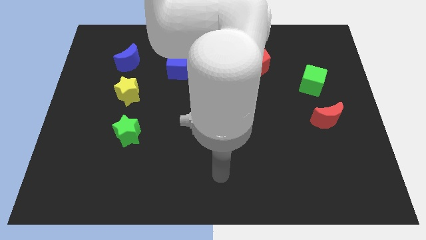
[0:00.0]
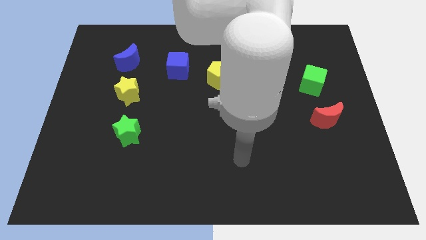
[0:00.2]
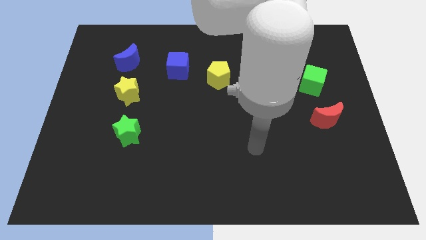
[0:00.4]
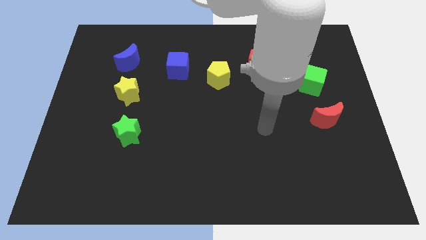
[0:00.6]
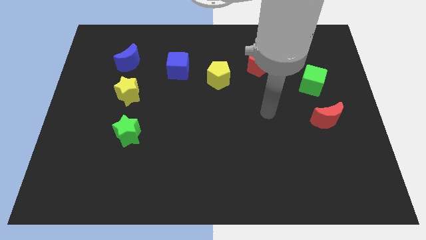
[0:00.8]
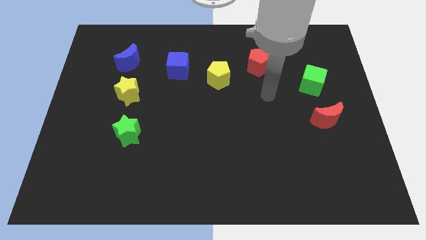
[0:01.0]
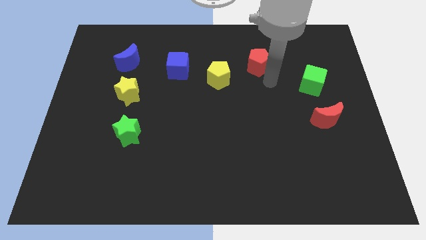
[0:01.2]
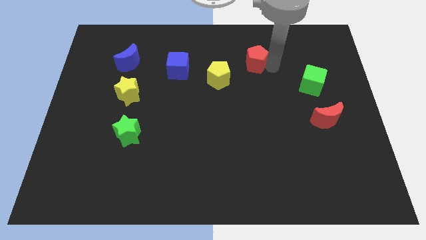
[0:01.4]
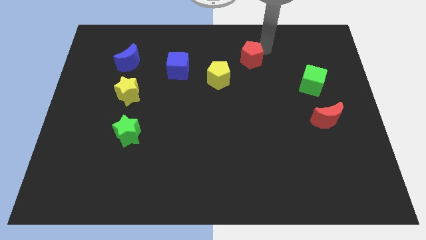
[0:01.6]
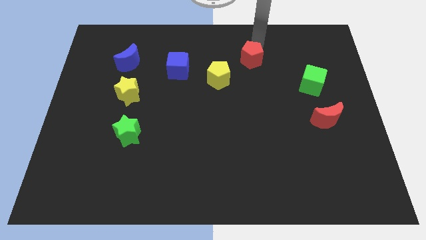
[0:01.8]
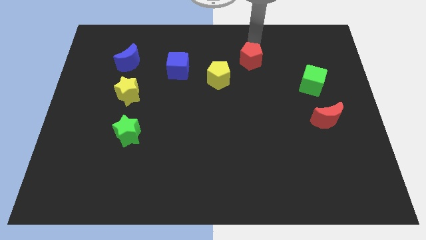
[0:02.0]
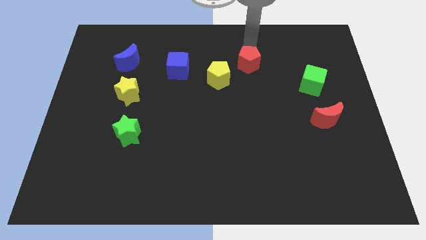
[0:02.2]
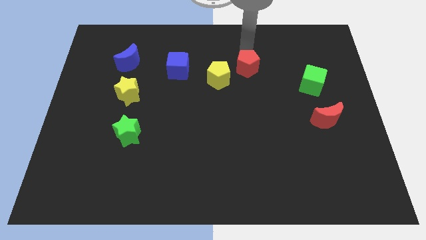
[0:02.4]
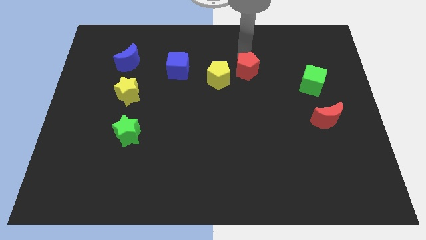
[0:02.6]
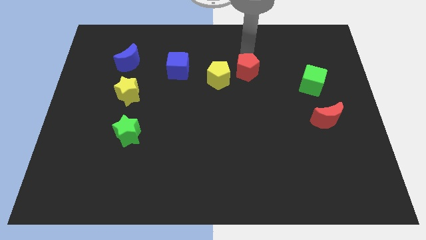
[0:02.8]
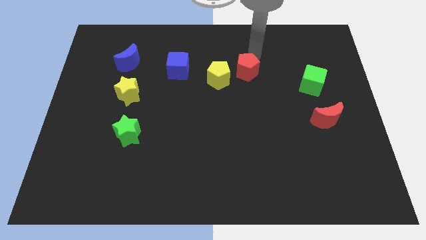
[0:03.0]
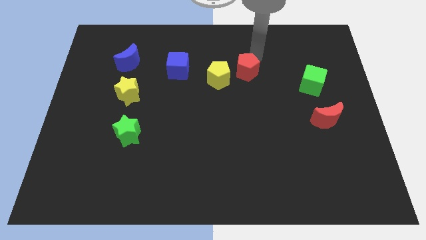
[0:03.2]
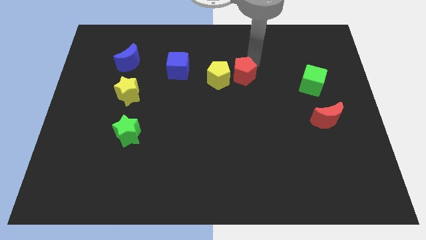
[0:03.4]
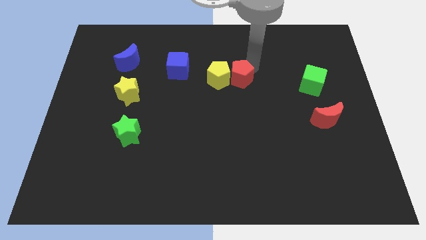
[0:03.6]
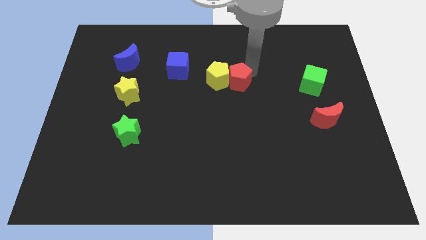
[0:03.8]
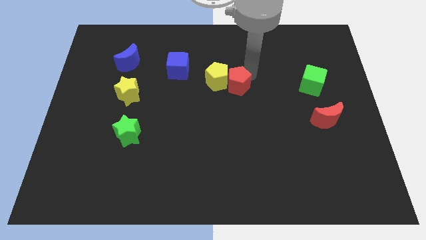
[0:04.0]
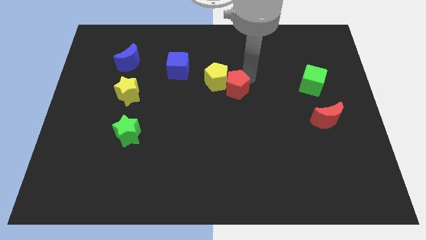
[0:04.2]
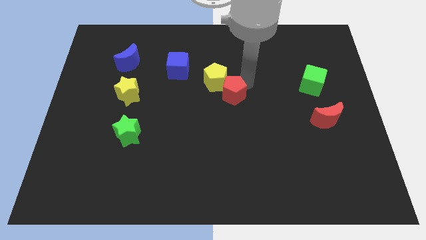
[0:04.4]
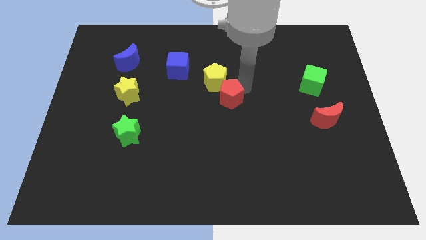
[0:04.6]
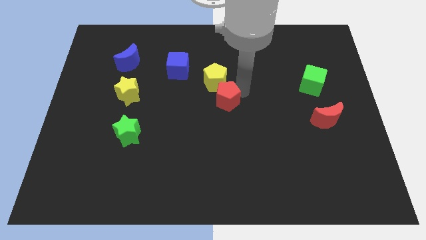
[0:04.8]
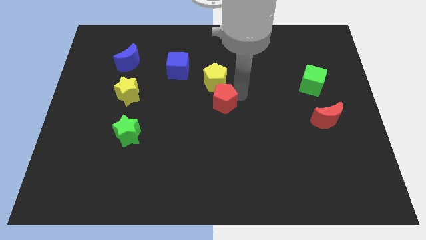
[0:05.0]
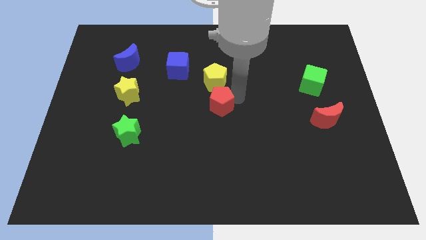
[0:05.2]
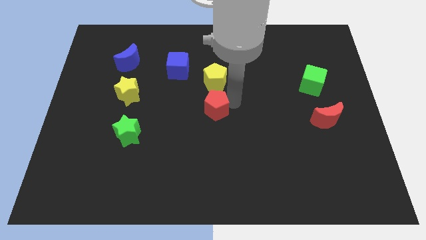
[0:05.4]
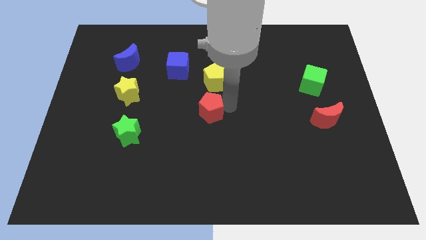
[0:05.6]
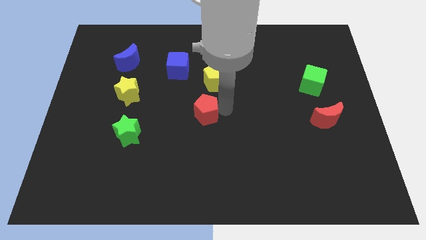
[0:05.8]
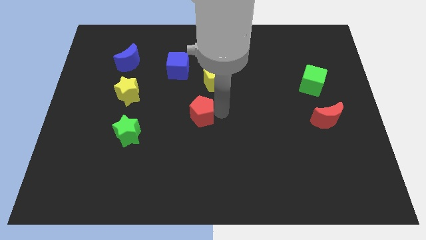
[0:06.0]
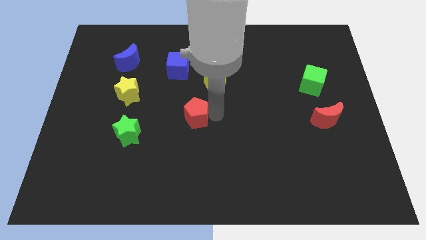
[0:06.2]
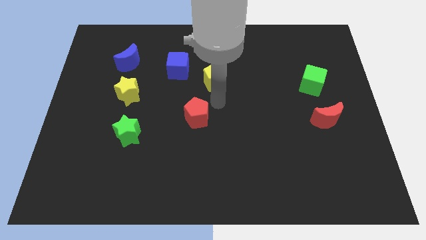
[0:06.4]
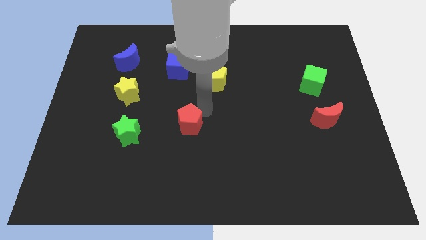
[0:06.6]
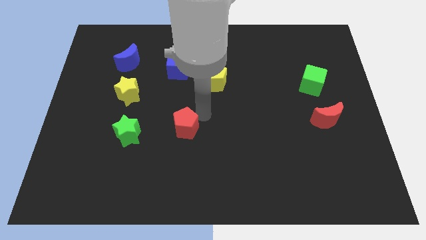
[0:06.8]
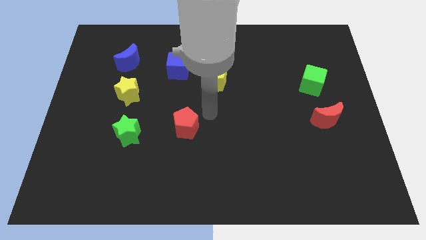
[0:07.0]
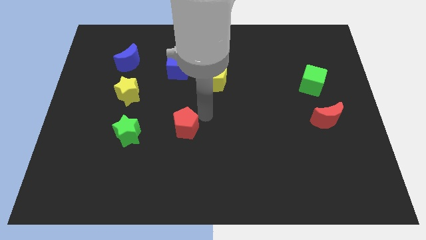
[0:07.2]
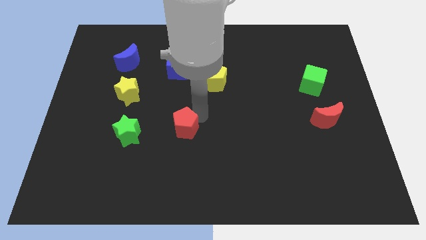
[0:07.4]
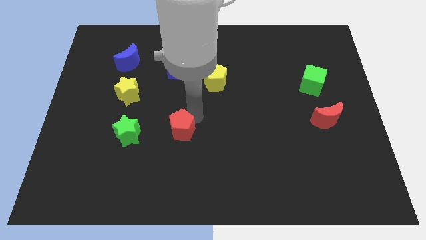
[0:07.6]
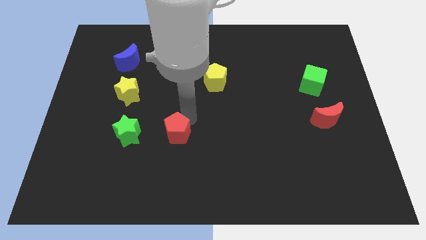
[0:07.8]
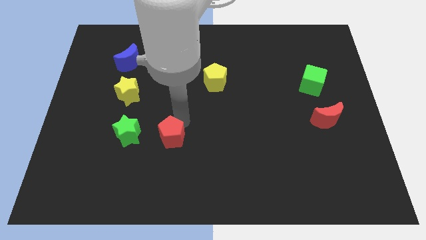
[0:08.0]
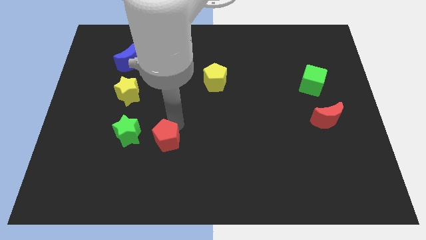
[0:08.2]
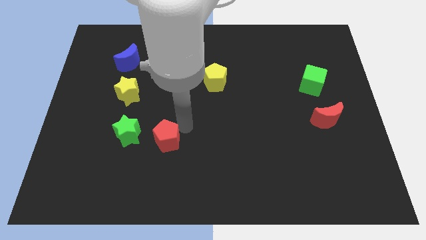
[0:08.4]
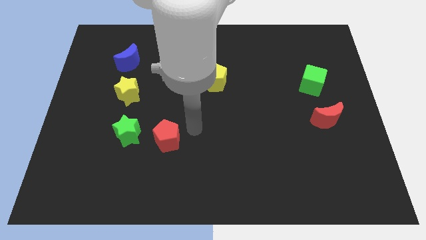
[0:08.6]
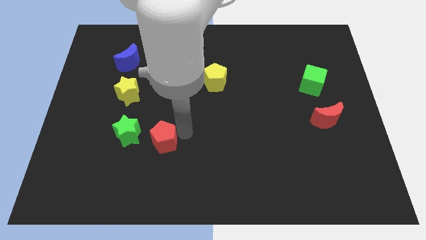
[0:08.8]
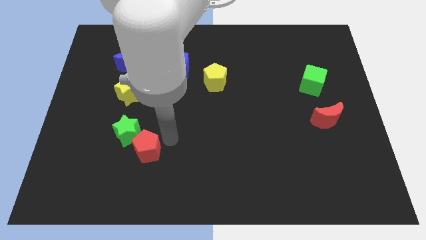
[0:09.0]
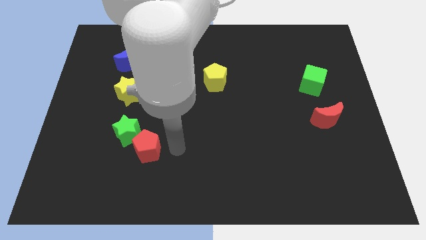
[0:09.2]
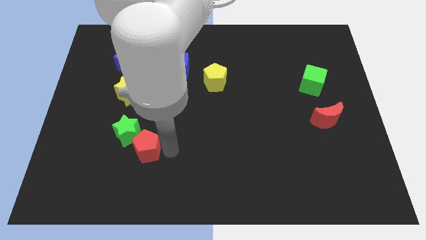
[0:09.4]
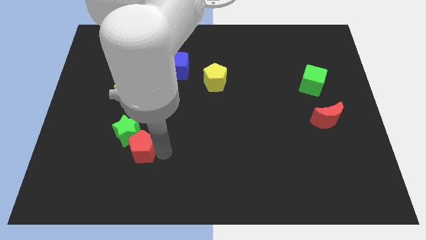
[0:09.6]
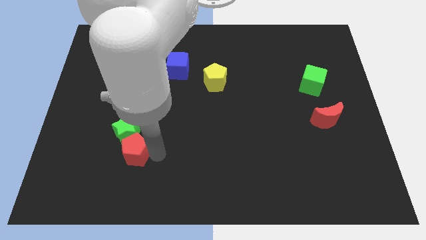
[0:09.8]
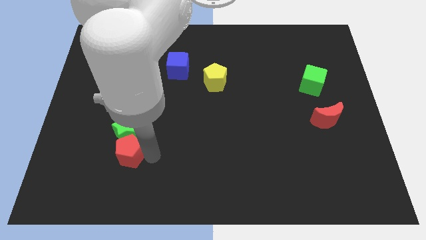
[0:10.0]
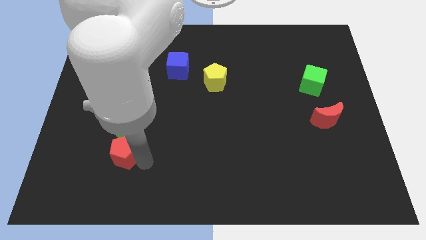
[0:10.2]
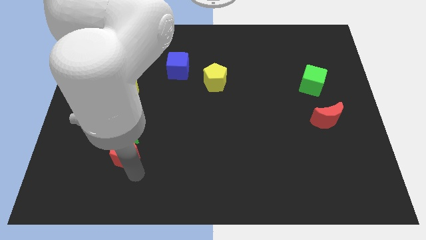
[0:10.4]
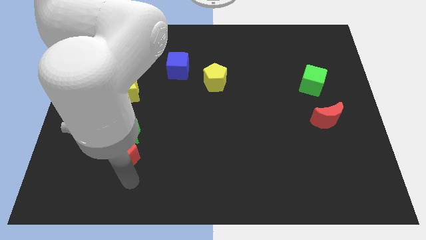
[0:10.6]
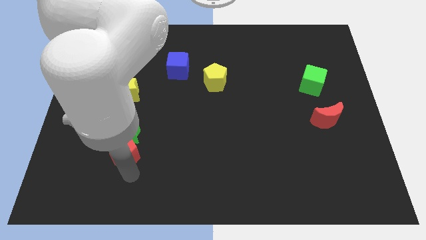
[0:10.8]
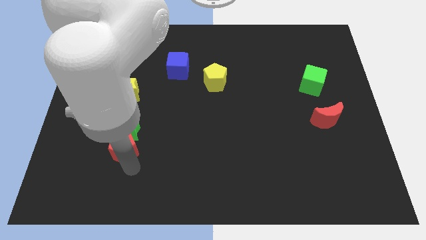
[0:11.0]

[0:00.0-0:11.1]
put the red pentagon below the yellow star

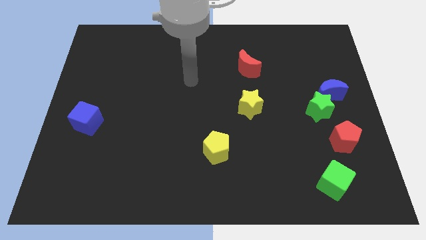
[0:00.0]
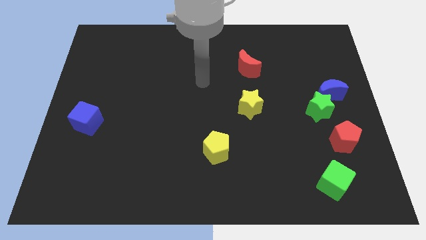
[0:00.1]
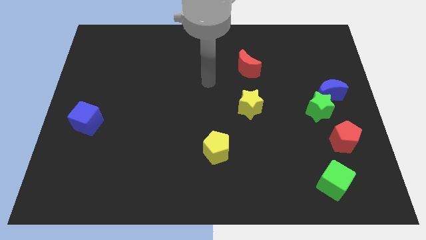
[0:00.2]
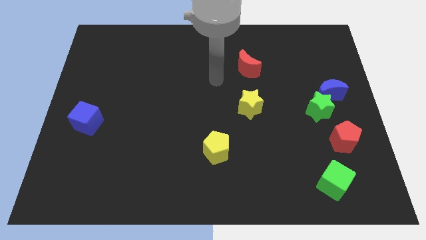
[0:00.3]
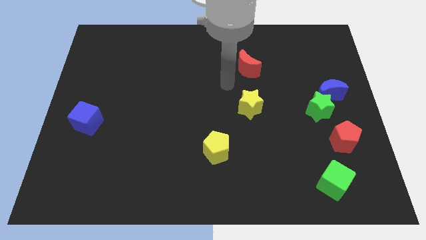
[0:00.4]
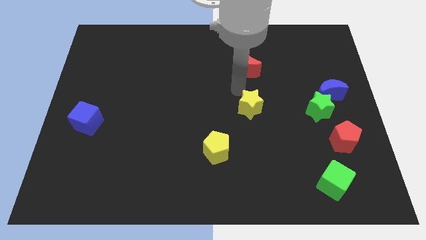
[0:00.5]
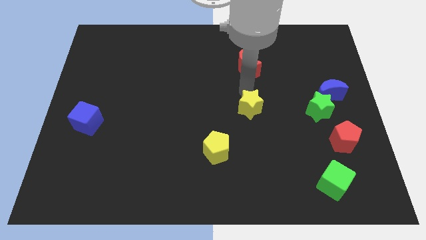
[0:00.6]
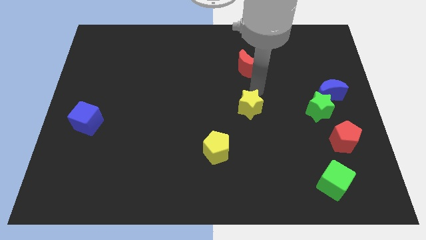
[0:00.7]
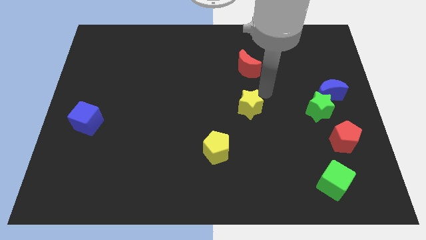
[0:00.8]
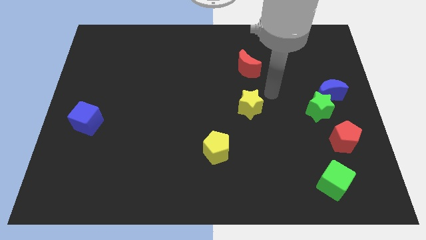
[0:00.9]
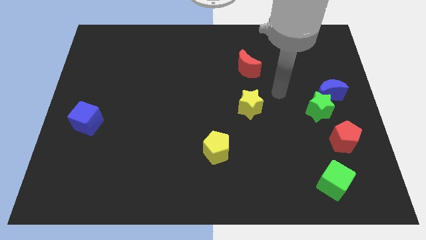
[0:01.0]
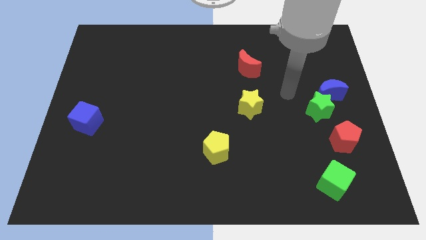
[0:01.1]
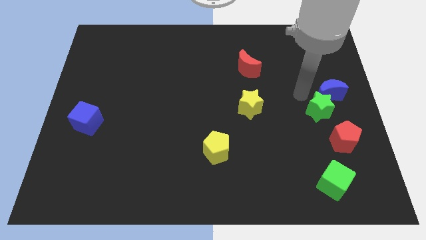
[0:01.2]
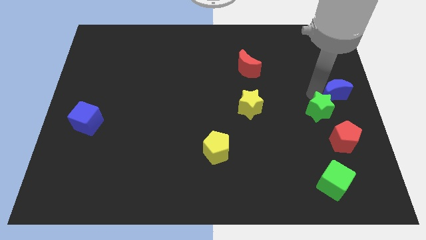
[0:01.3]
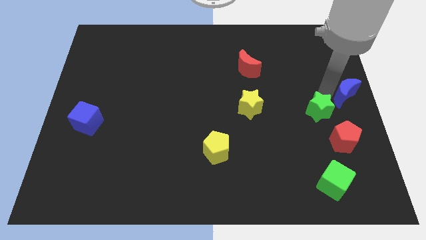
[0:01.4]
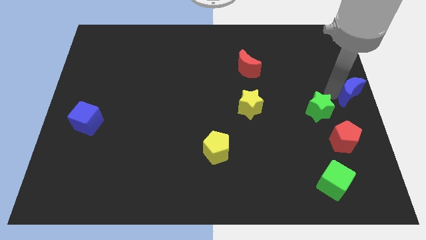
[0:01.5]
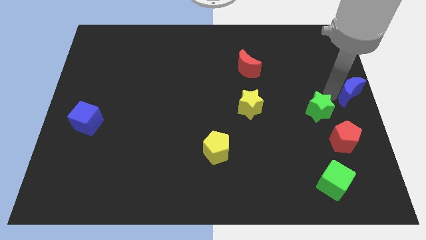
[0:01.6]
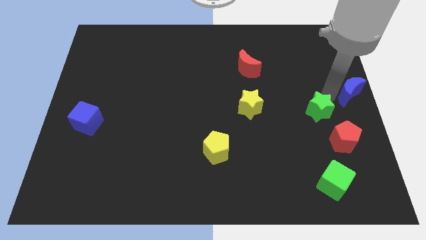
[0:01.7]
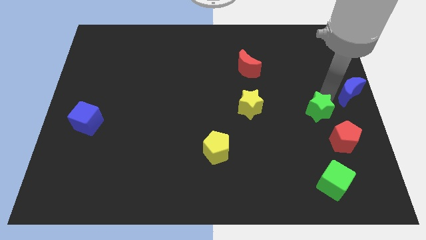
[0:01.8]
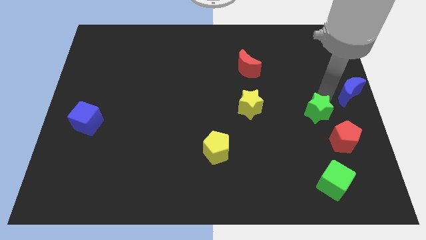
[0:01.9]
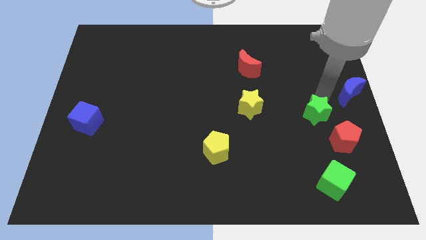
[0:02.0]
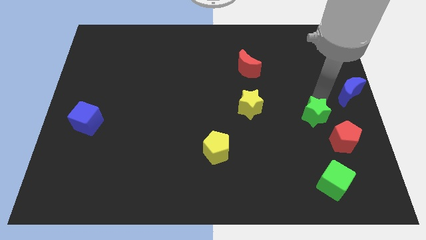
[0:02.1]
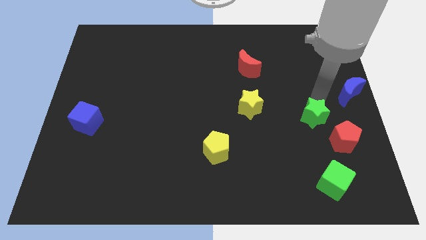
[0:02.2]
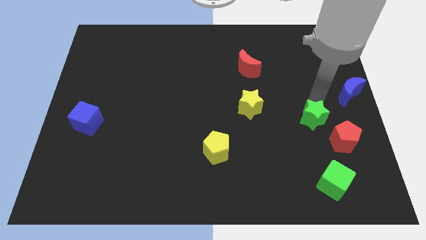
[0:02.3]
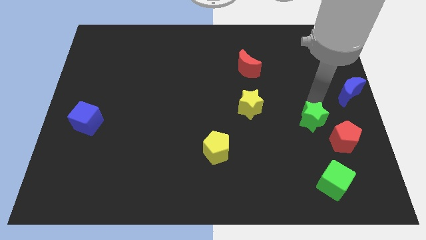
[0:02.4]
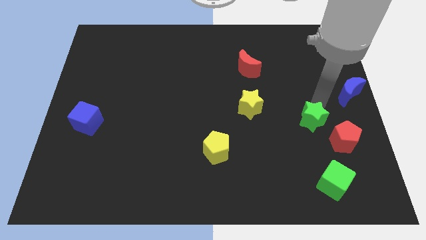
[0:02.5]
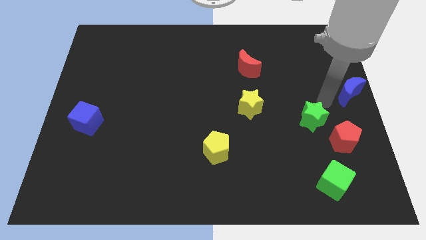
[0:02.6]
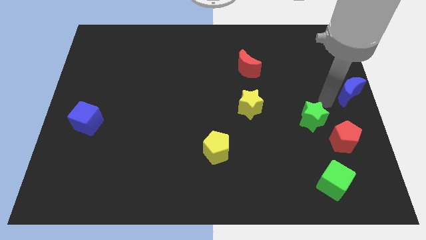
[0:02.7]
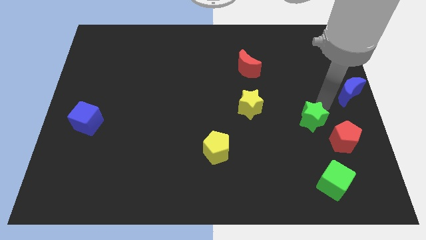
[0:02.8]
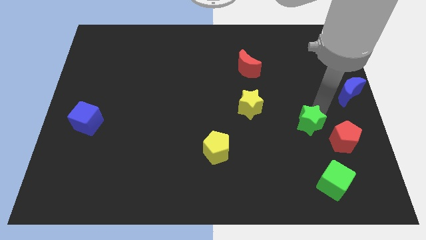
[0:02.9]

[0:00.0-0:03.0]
slide the green star just left of the red pentagon

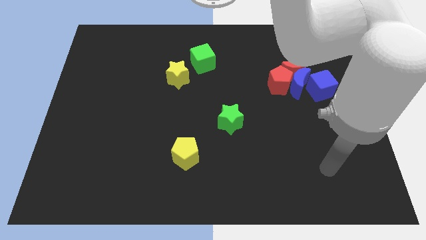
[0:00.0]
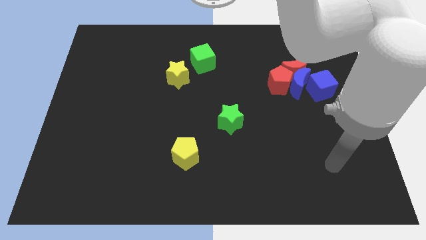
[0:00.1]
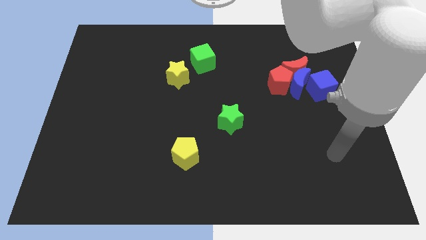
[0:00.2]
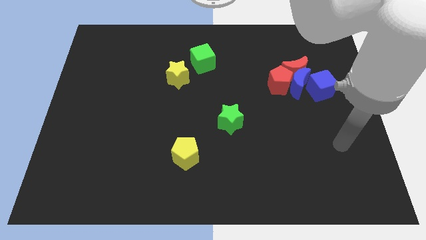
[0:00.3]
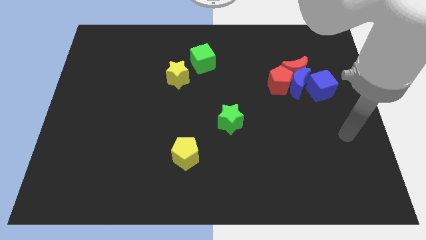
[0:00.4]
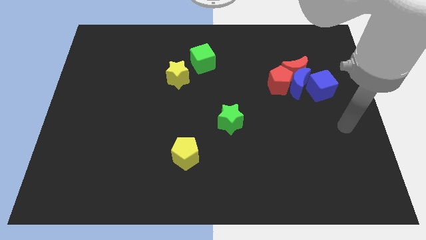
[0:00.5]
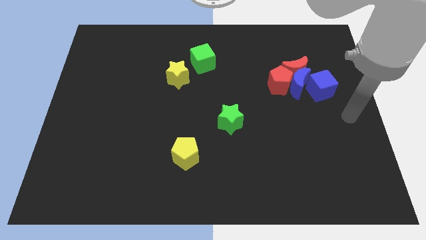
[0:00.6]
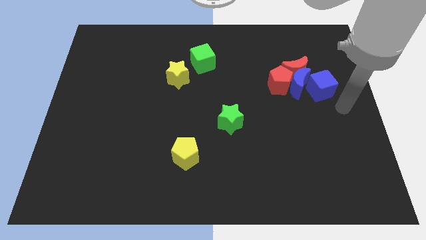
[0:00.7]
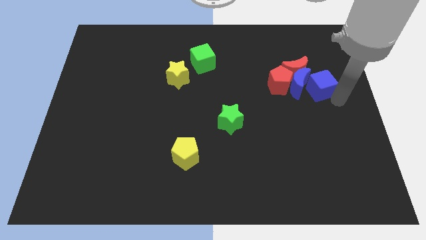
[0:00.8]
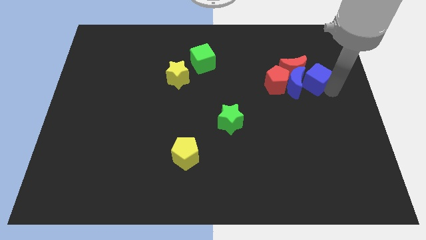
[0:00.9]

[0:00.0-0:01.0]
slide the red moon left of the blue cube
